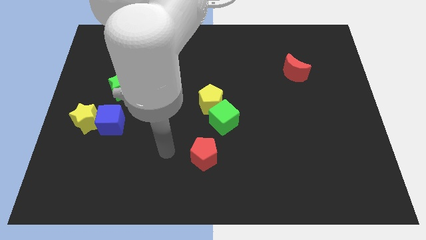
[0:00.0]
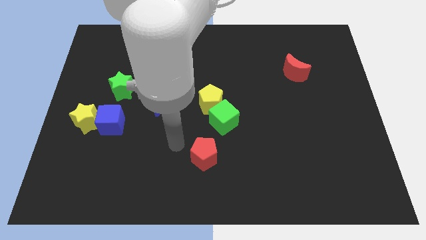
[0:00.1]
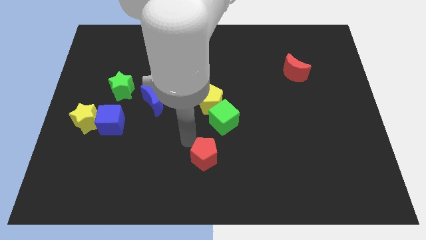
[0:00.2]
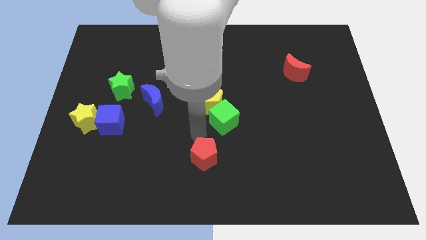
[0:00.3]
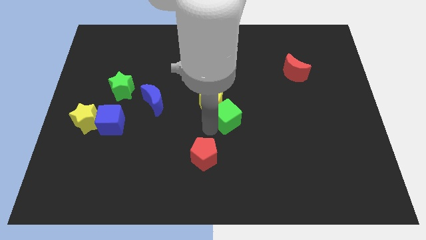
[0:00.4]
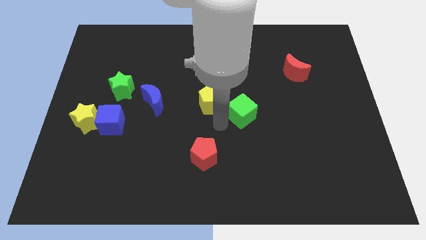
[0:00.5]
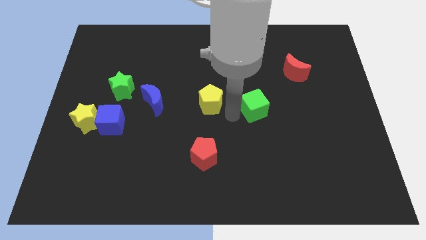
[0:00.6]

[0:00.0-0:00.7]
pull the yellow pentagon apart from the green cube

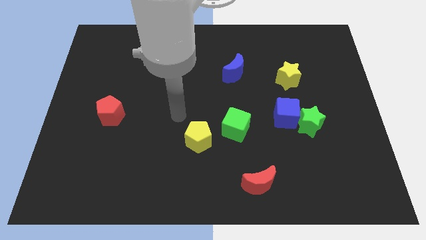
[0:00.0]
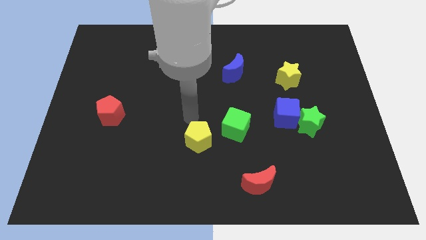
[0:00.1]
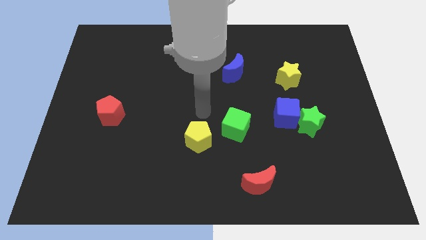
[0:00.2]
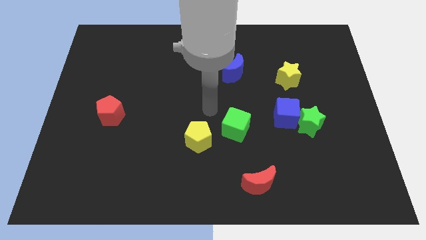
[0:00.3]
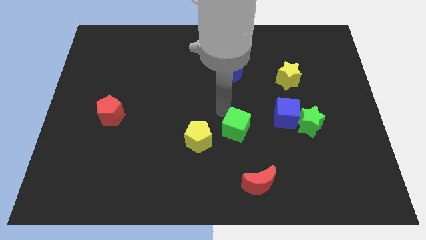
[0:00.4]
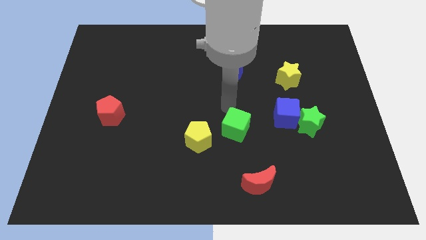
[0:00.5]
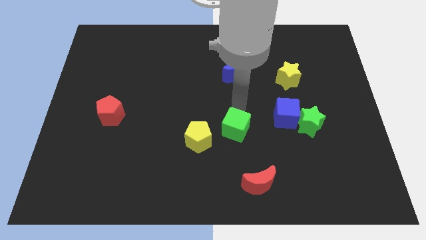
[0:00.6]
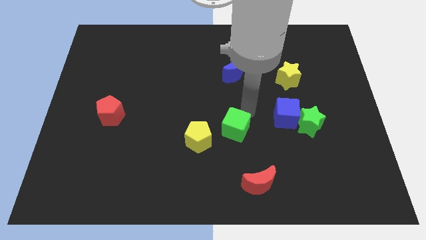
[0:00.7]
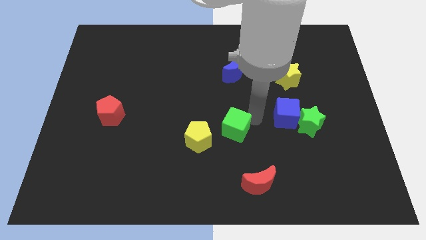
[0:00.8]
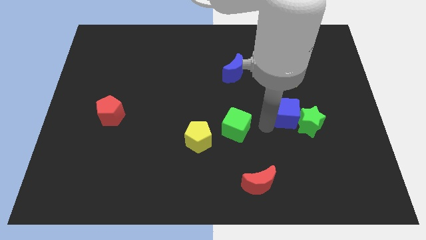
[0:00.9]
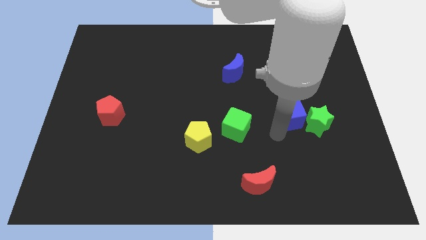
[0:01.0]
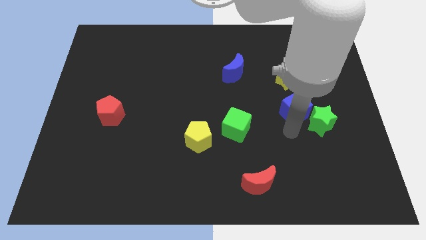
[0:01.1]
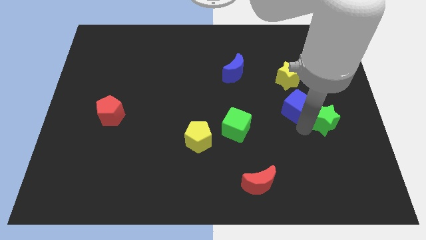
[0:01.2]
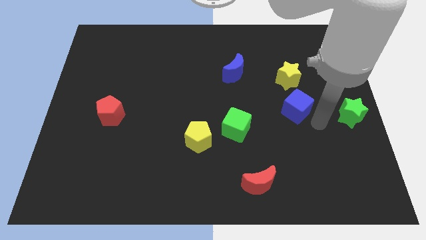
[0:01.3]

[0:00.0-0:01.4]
separate the blue cube from the green star

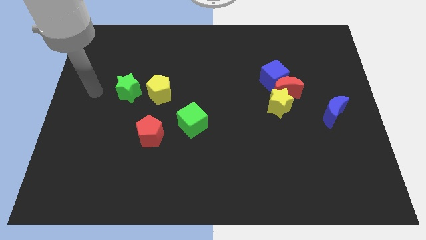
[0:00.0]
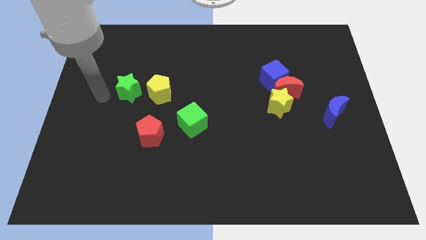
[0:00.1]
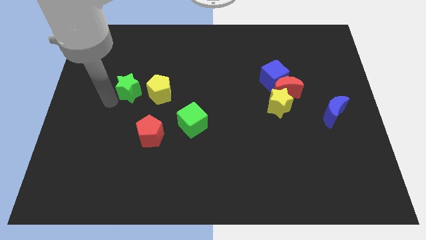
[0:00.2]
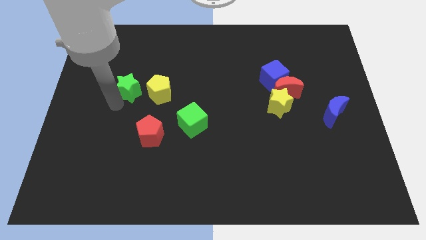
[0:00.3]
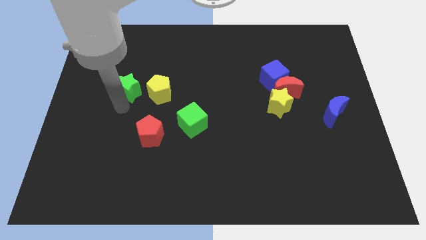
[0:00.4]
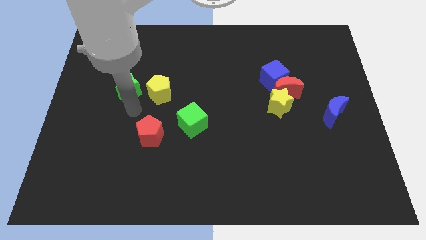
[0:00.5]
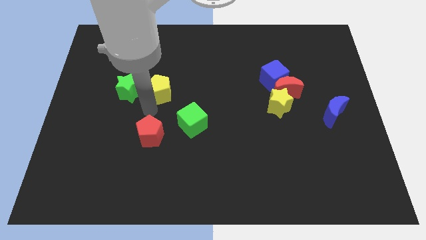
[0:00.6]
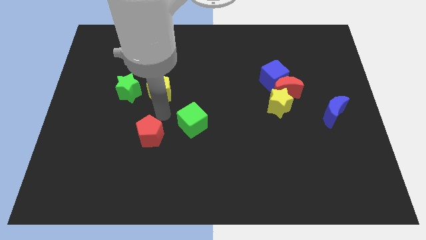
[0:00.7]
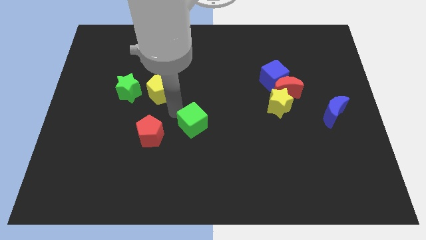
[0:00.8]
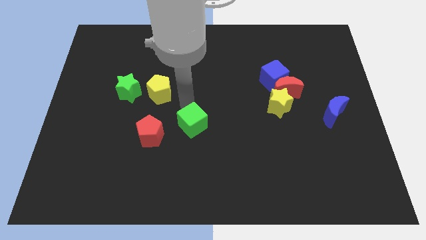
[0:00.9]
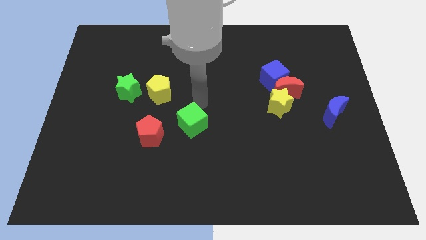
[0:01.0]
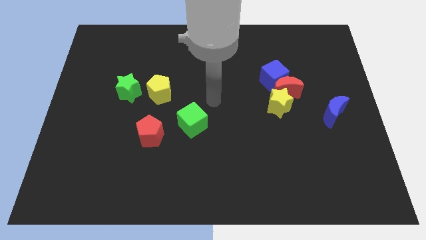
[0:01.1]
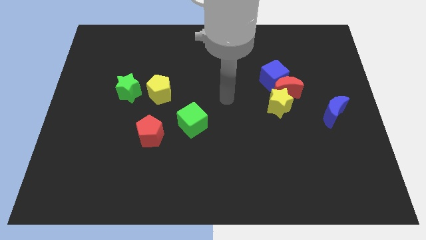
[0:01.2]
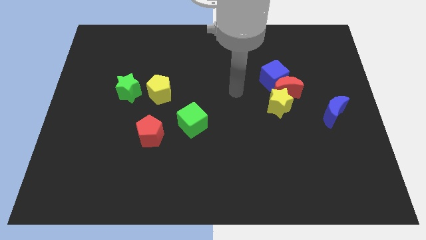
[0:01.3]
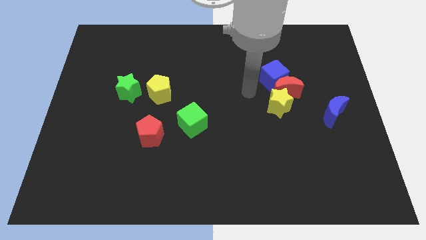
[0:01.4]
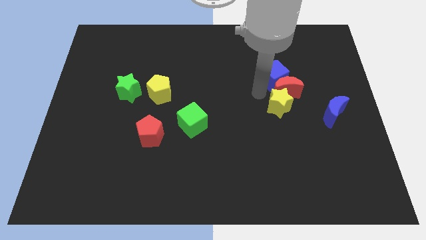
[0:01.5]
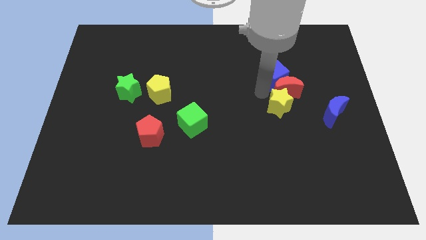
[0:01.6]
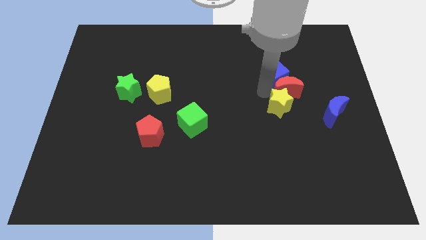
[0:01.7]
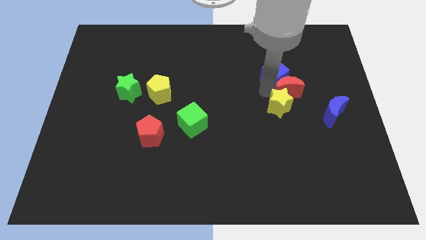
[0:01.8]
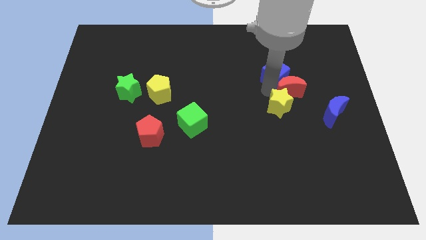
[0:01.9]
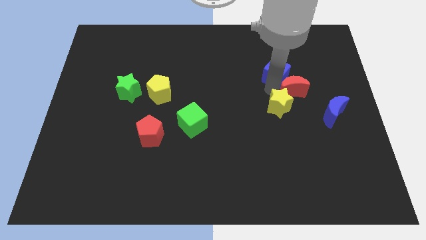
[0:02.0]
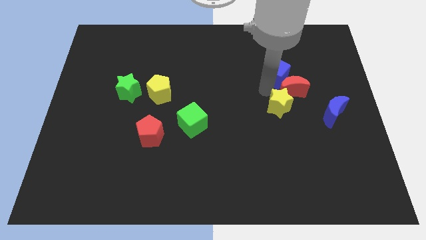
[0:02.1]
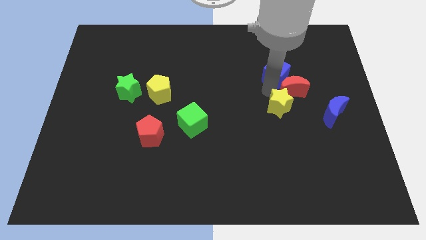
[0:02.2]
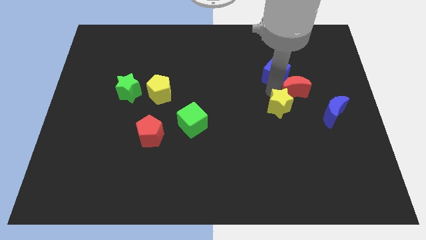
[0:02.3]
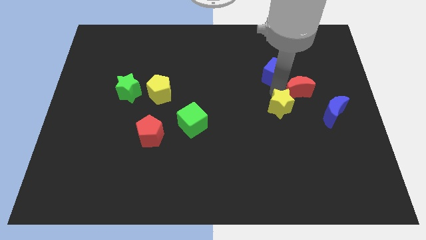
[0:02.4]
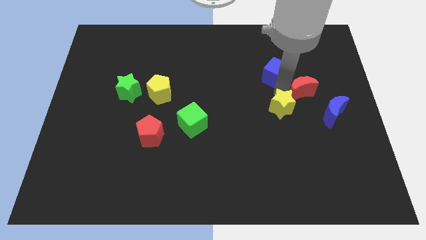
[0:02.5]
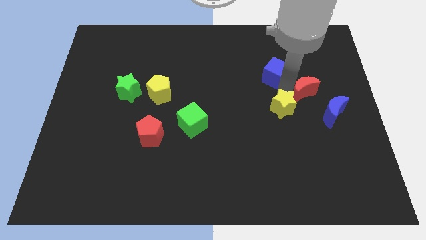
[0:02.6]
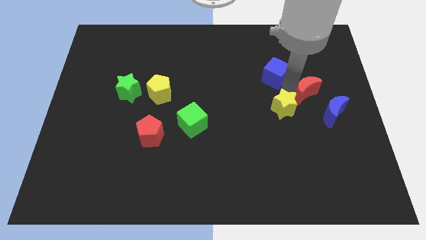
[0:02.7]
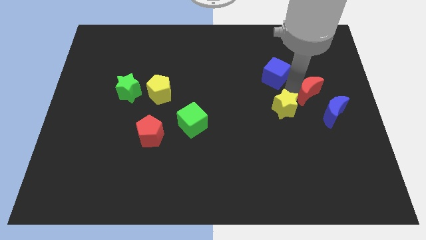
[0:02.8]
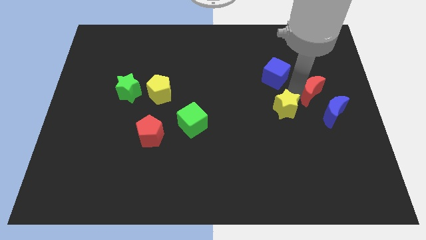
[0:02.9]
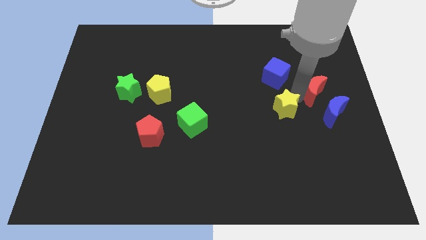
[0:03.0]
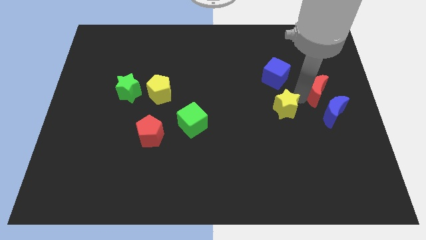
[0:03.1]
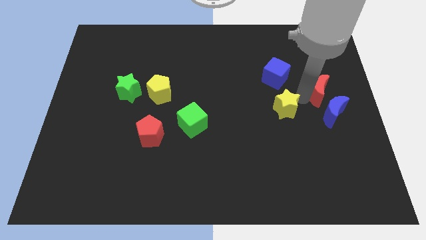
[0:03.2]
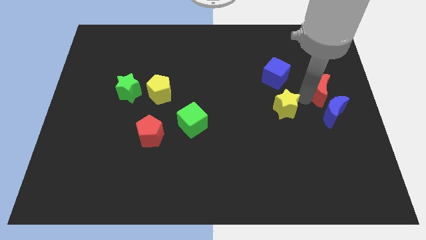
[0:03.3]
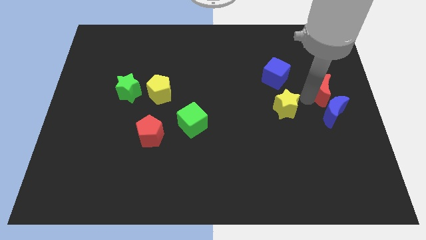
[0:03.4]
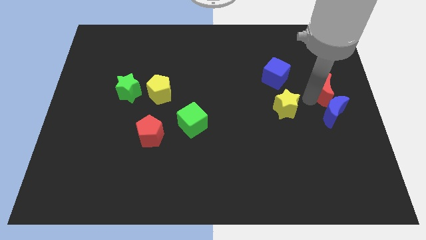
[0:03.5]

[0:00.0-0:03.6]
pull the red moon apart from the blue cube and yellow star

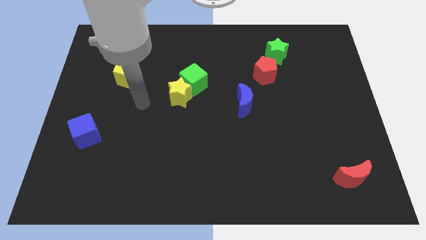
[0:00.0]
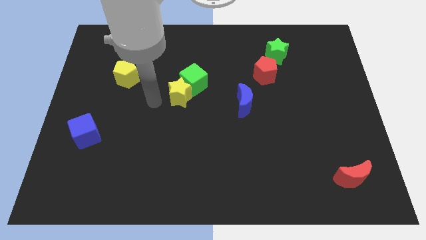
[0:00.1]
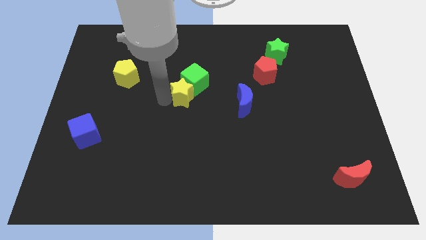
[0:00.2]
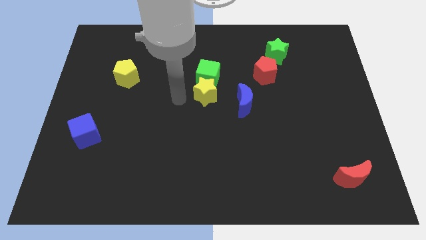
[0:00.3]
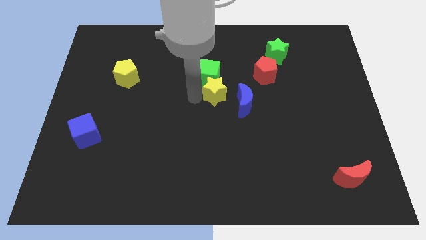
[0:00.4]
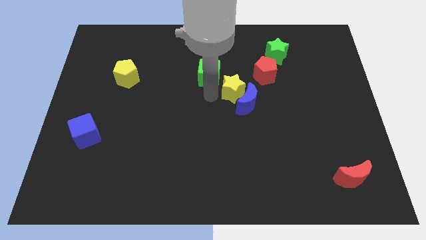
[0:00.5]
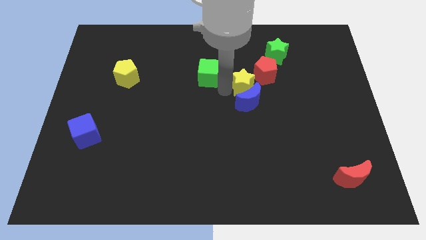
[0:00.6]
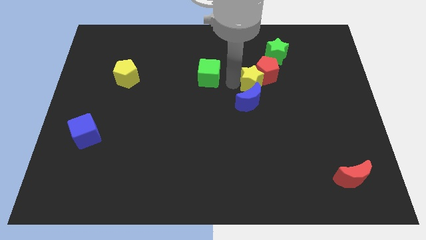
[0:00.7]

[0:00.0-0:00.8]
separate the green cube from the yellow star

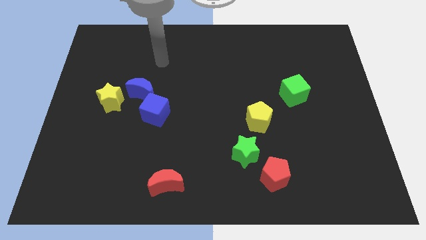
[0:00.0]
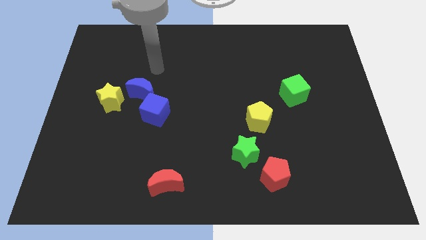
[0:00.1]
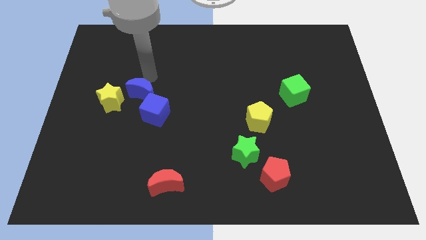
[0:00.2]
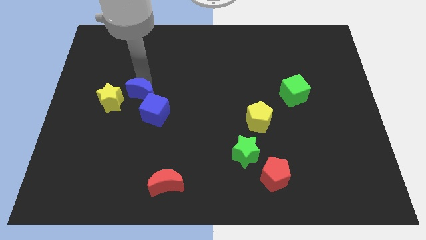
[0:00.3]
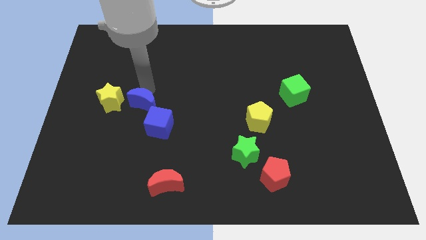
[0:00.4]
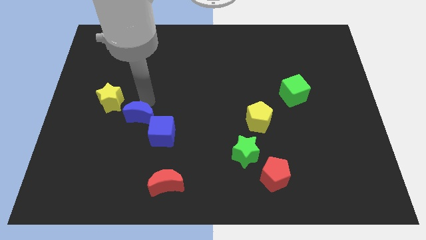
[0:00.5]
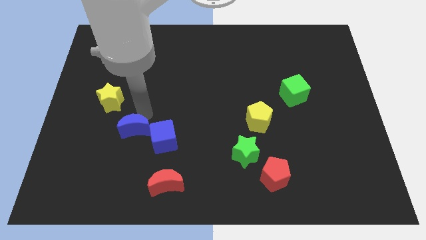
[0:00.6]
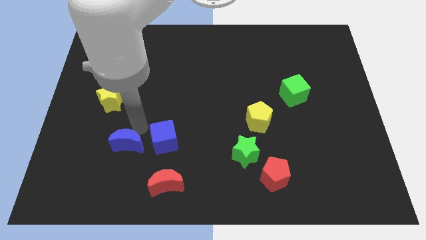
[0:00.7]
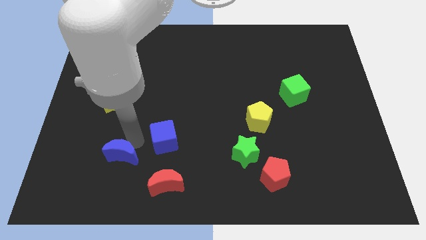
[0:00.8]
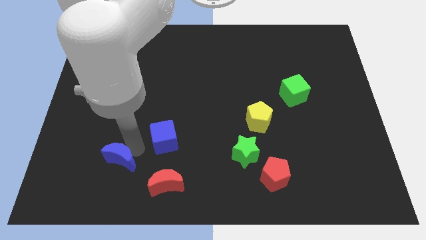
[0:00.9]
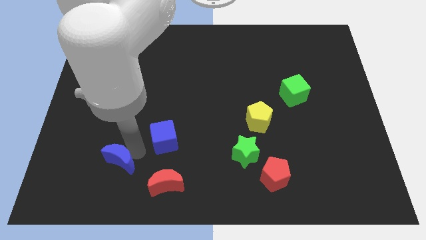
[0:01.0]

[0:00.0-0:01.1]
move the blue cube away from the blue moon

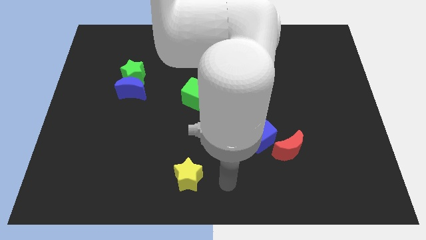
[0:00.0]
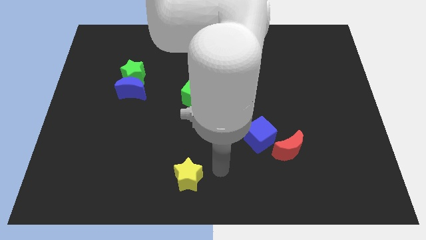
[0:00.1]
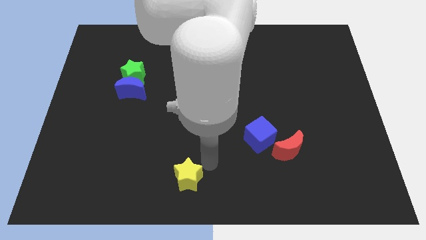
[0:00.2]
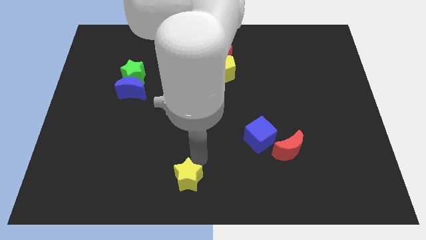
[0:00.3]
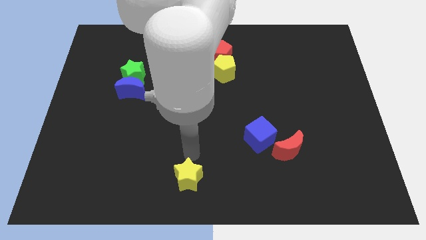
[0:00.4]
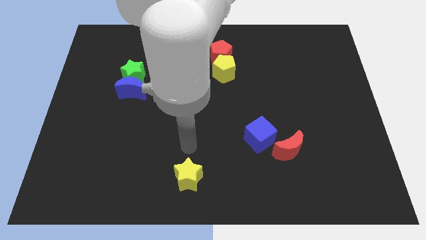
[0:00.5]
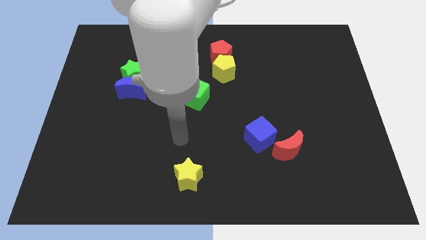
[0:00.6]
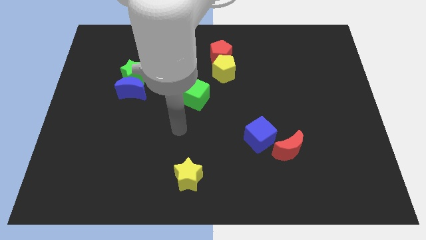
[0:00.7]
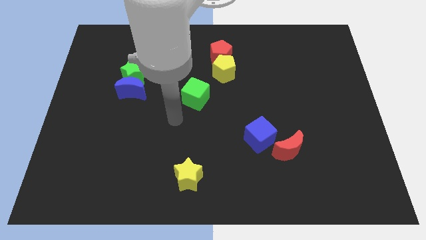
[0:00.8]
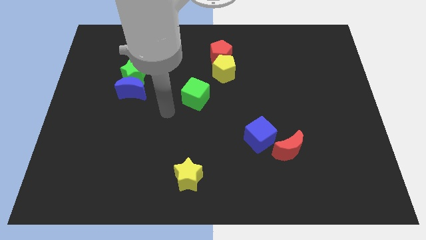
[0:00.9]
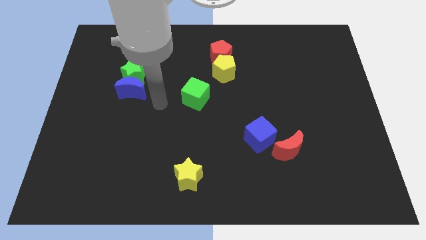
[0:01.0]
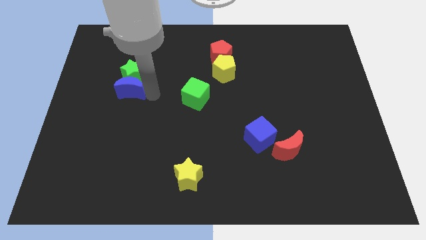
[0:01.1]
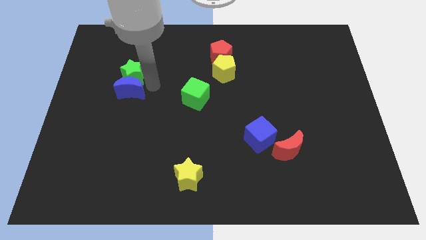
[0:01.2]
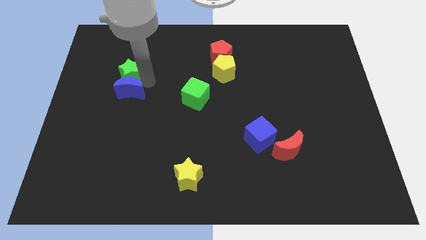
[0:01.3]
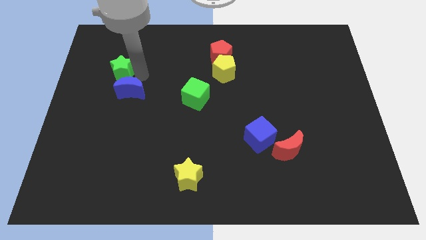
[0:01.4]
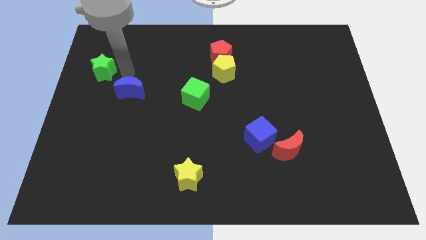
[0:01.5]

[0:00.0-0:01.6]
separate the blue moon from the green star

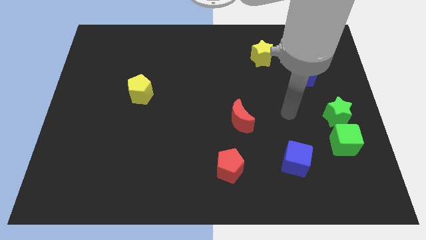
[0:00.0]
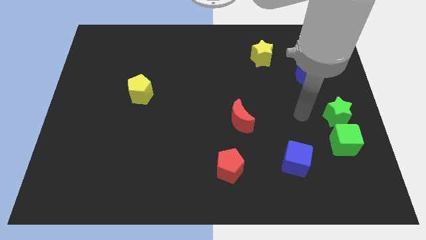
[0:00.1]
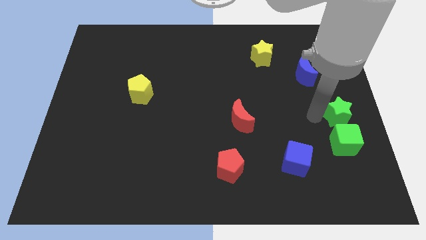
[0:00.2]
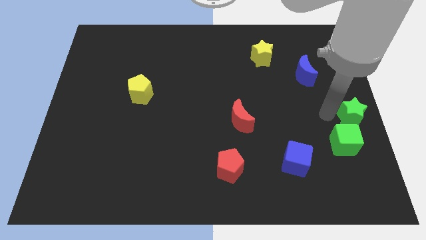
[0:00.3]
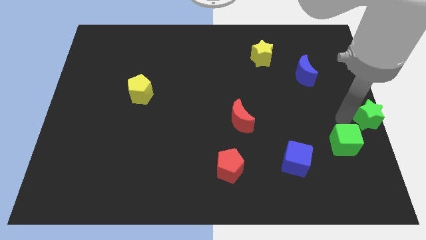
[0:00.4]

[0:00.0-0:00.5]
separate the green cube from the green star
